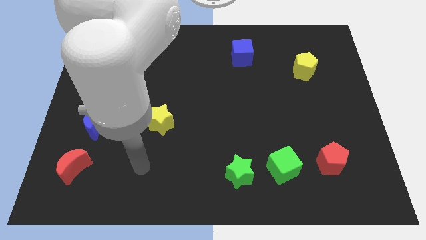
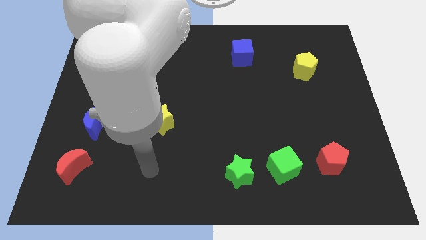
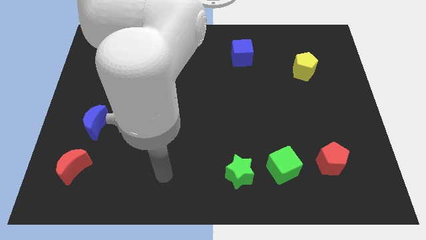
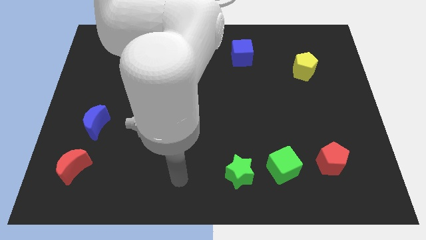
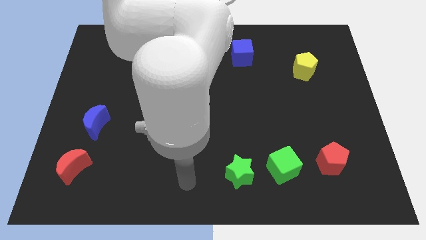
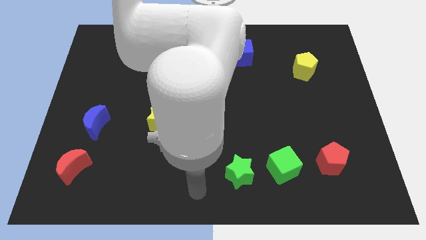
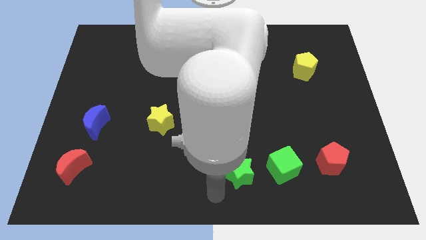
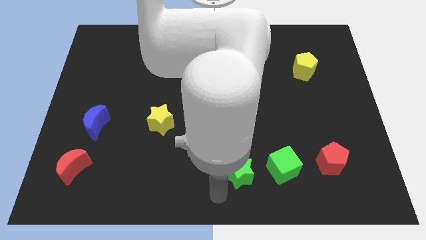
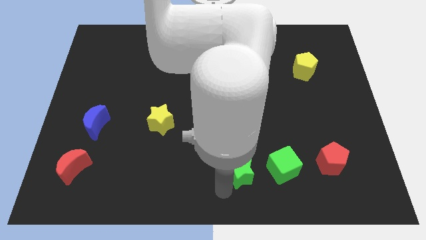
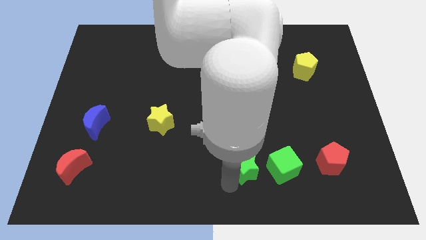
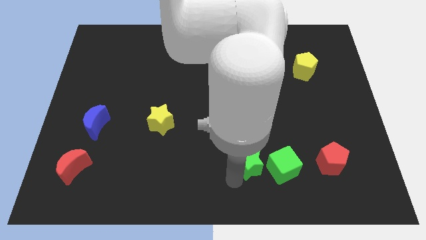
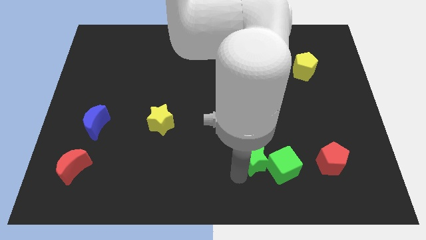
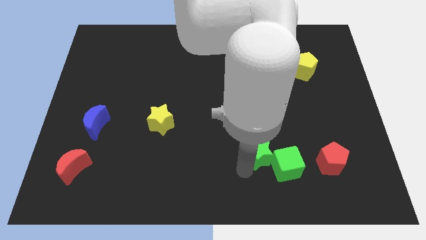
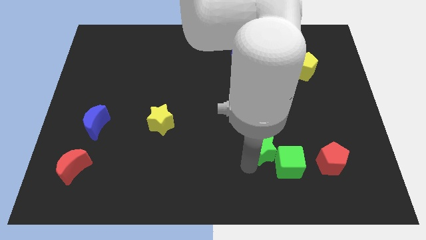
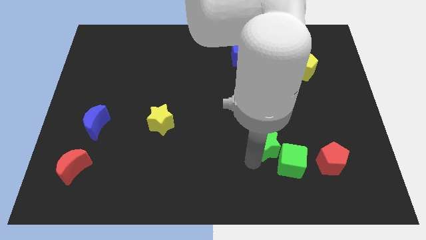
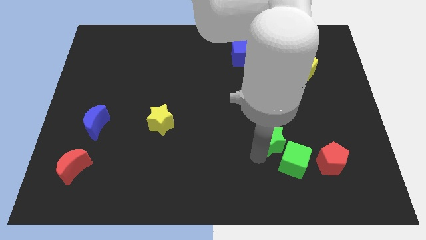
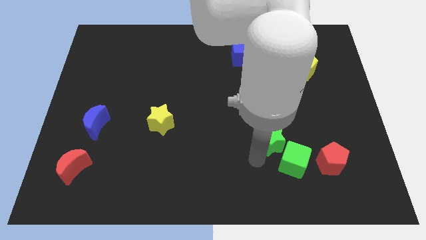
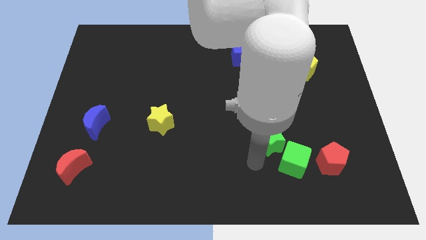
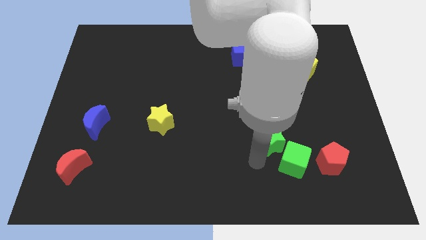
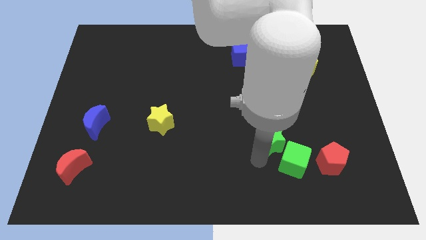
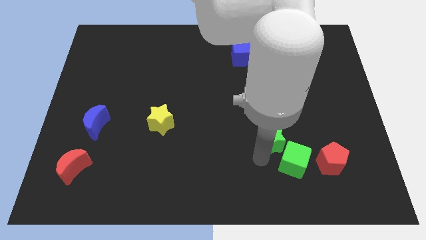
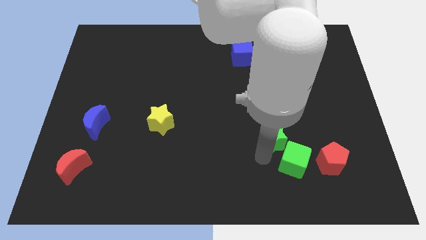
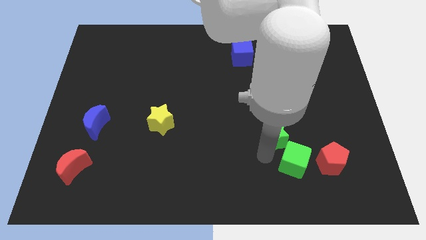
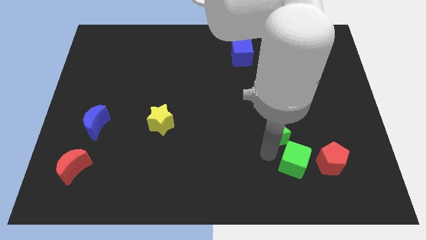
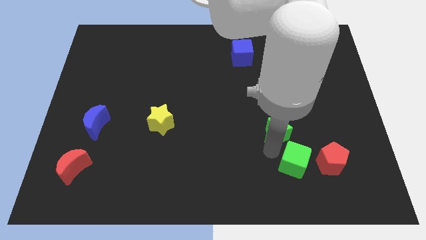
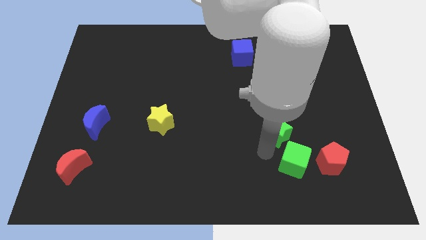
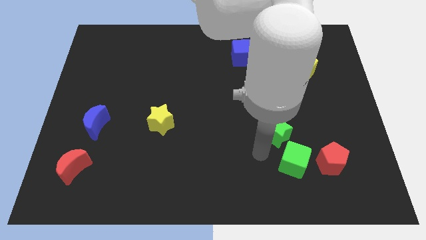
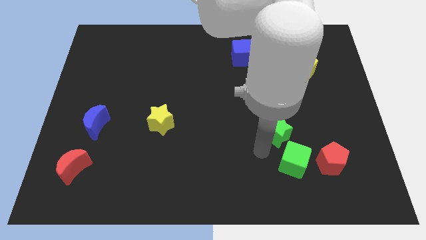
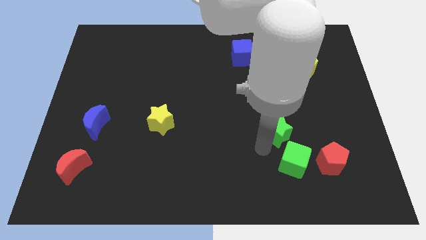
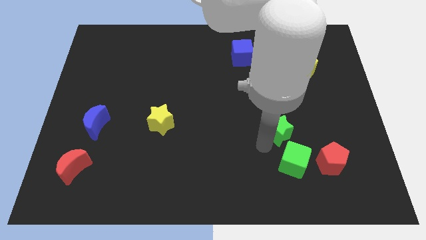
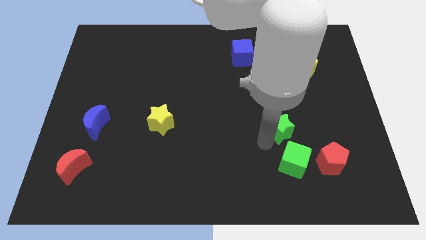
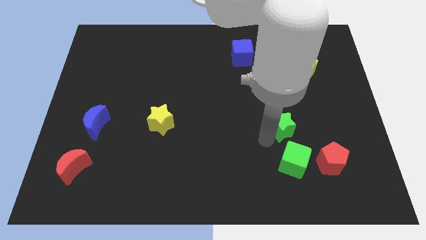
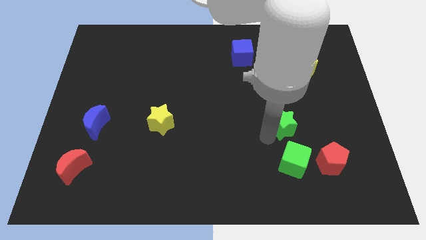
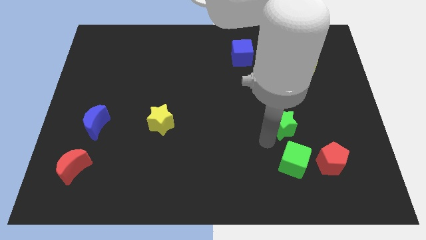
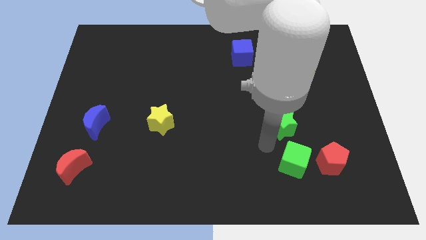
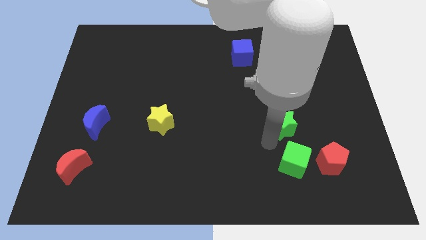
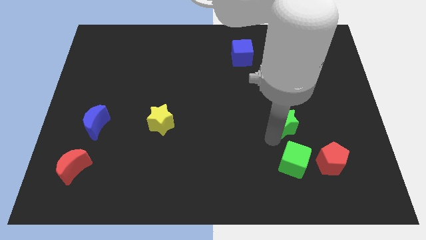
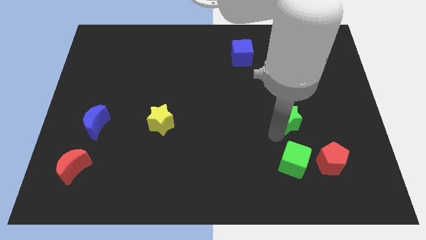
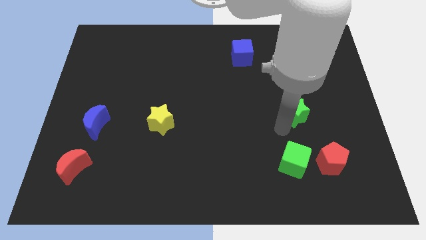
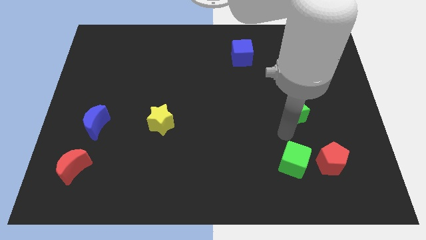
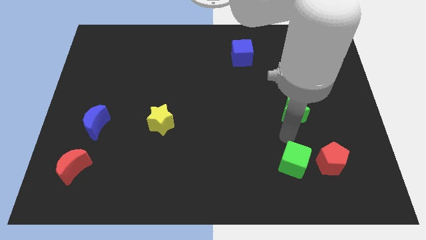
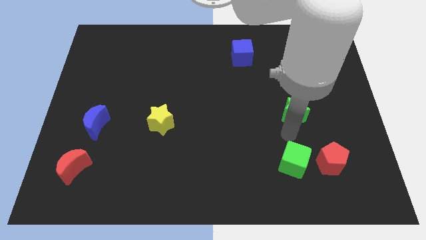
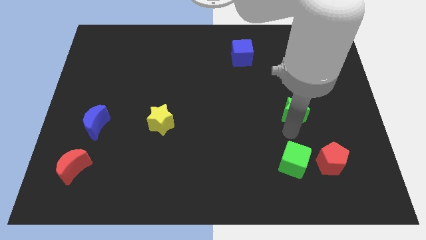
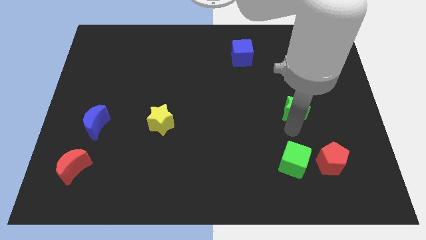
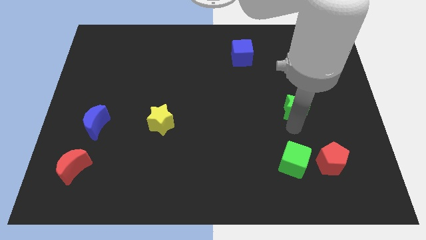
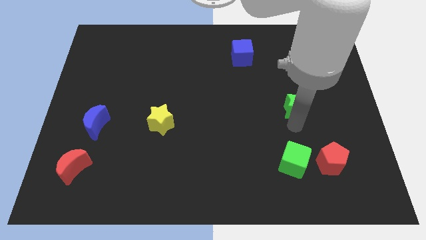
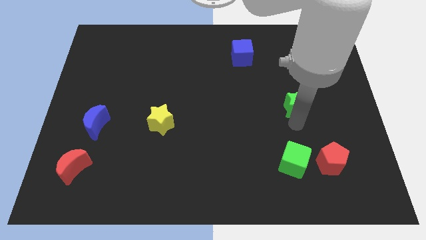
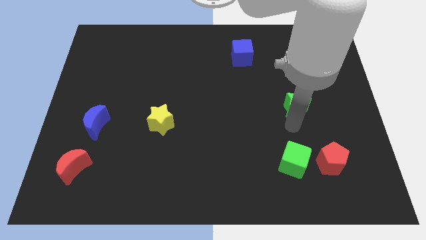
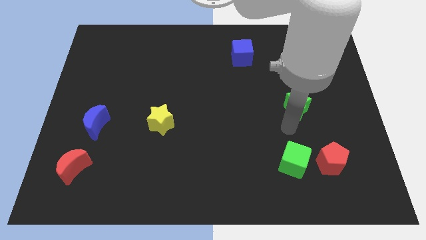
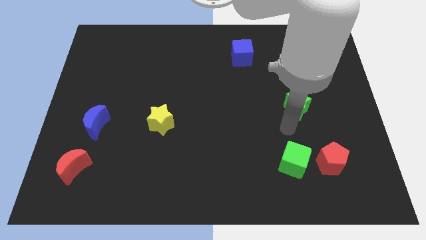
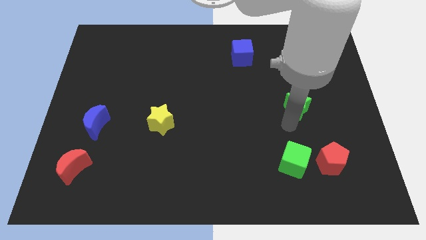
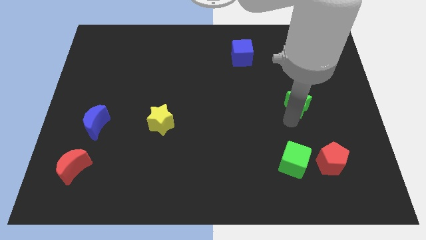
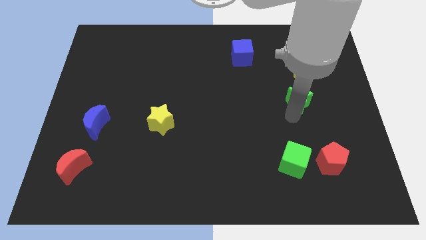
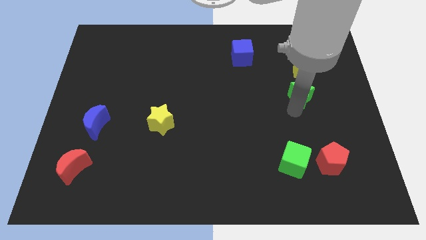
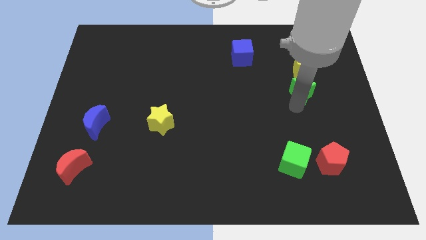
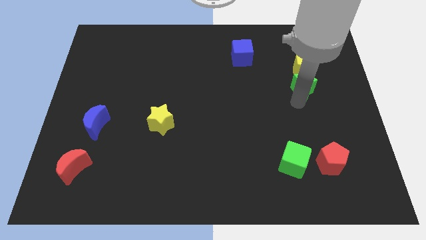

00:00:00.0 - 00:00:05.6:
slide the green star close to the yellow pentagon

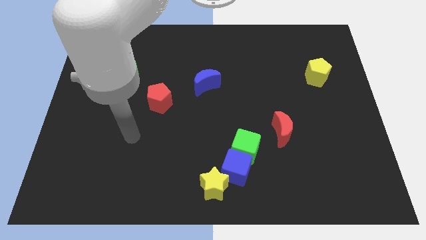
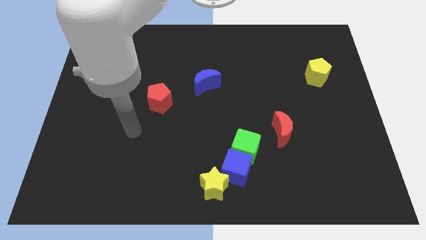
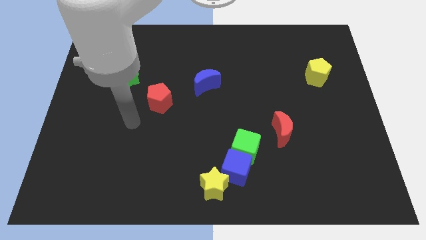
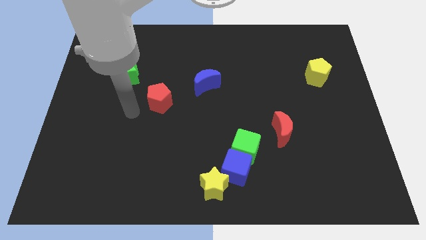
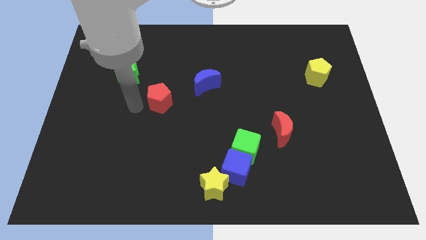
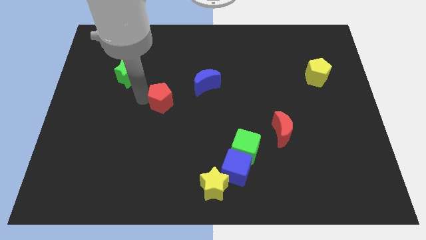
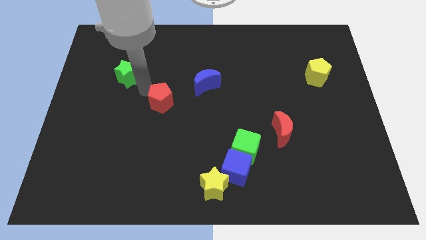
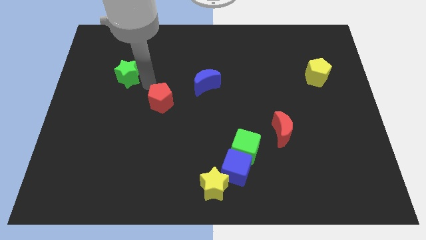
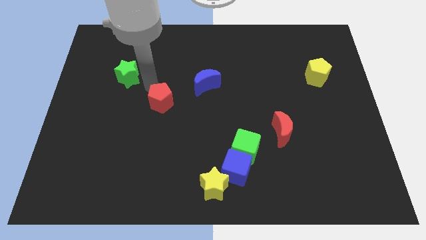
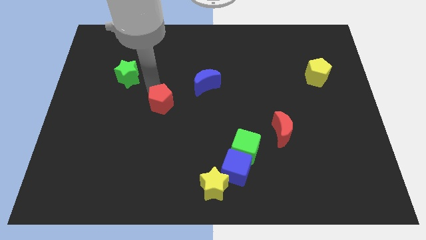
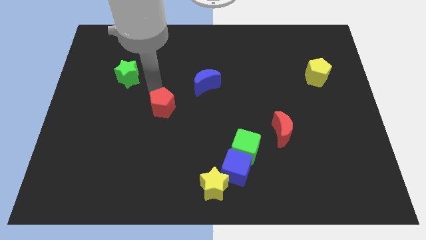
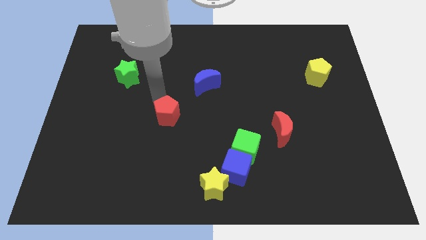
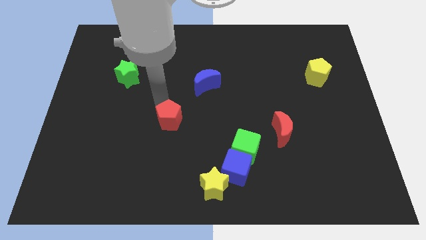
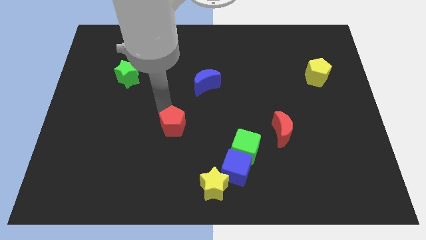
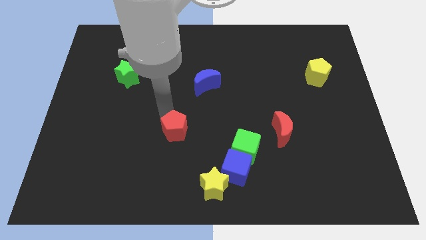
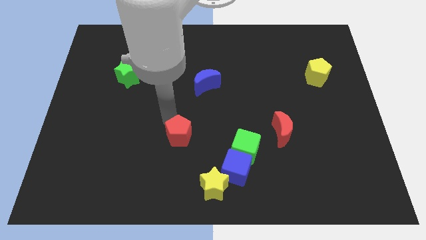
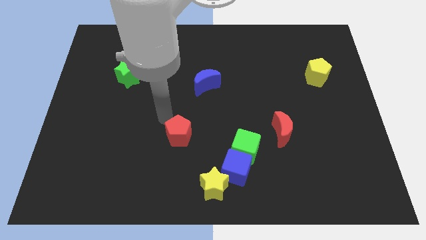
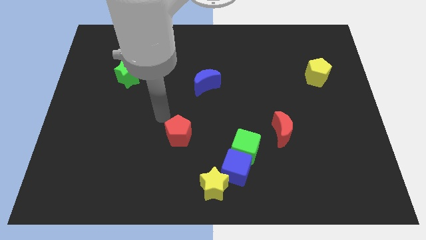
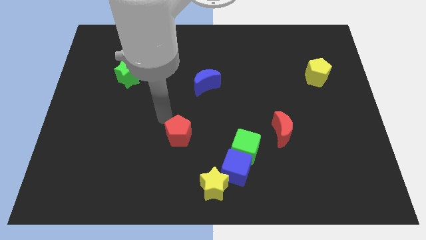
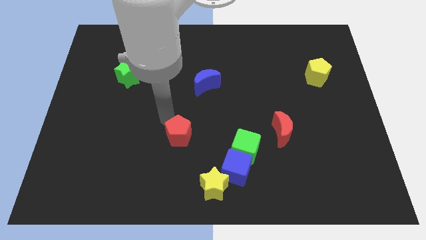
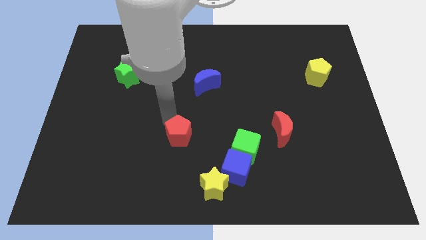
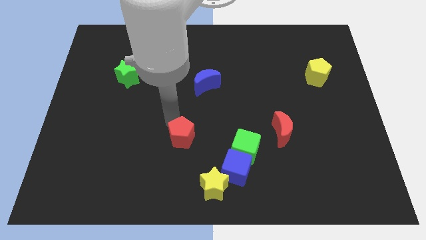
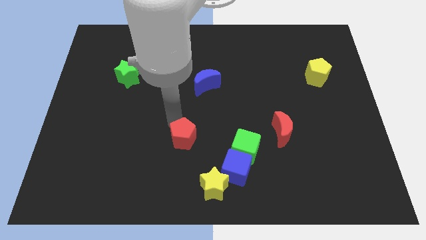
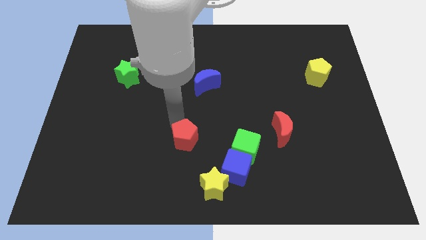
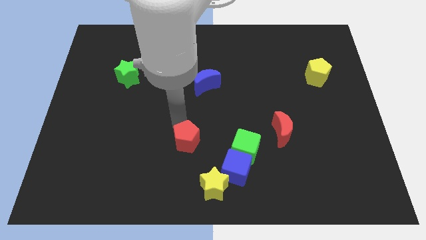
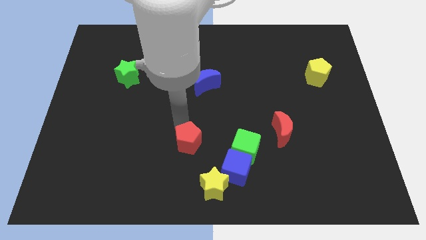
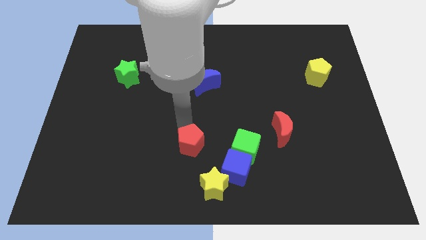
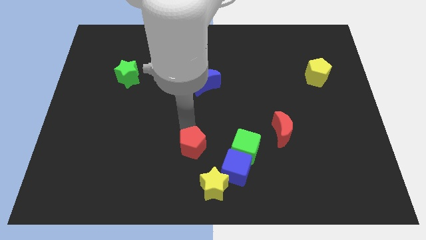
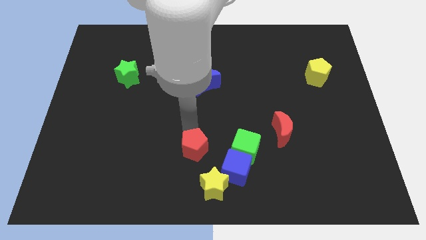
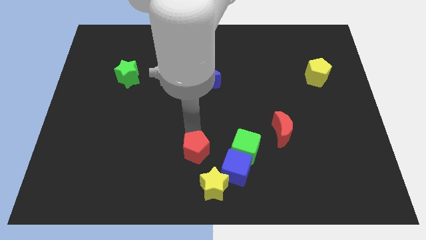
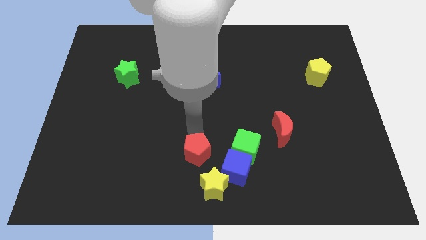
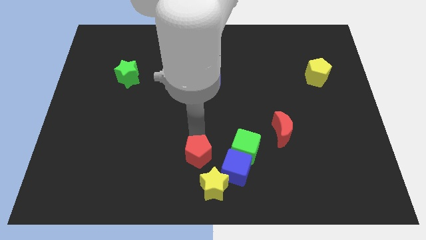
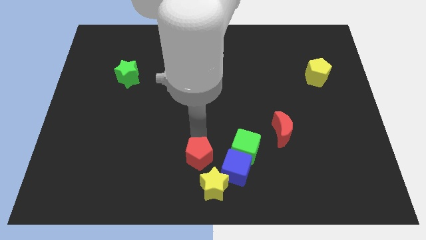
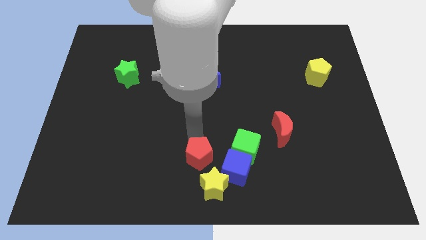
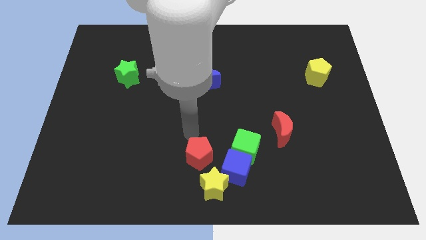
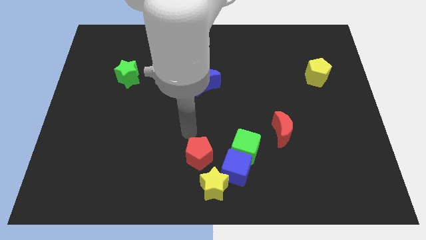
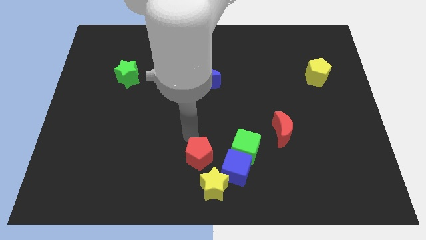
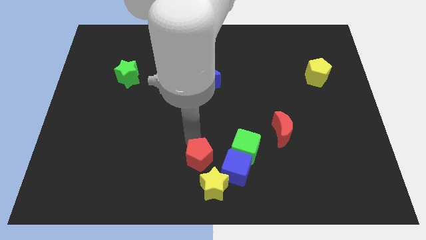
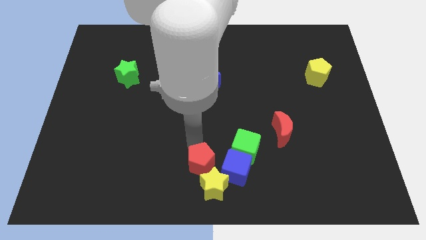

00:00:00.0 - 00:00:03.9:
move the red pentagon towards the yellow star
